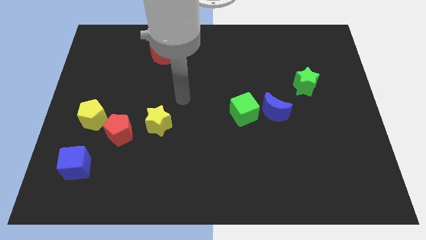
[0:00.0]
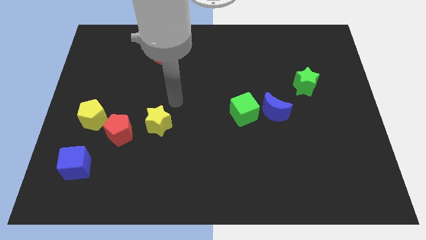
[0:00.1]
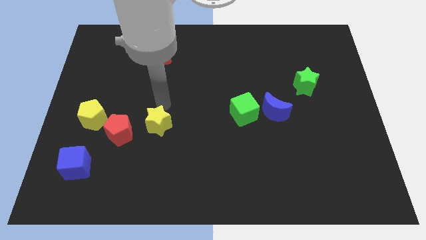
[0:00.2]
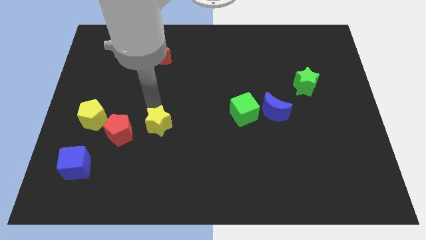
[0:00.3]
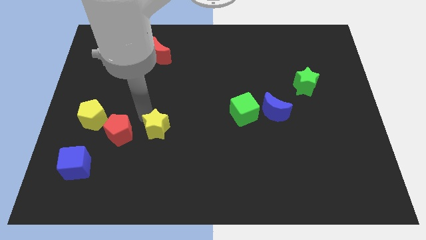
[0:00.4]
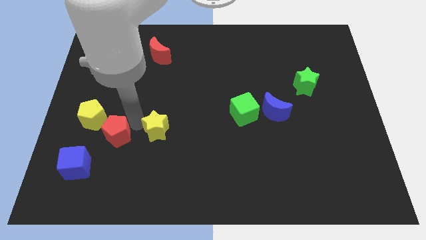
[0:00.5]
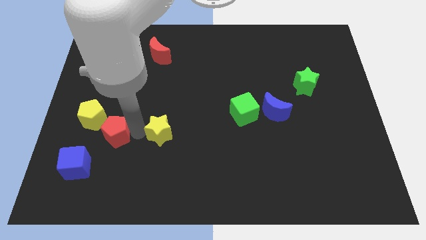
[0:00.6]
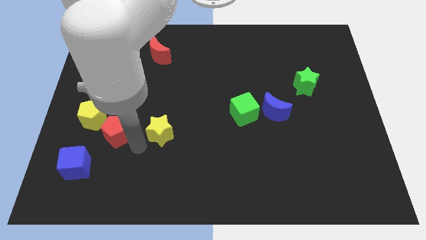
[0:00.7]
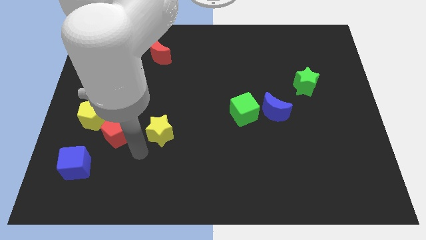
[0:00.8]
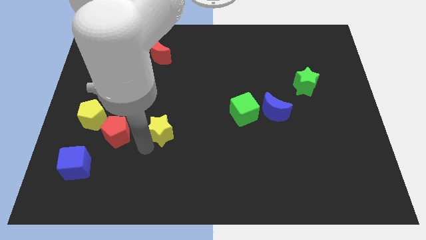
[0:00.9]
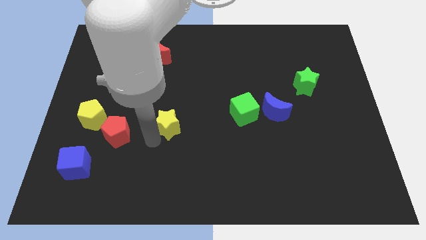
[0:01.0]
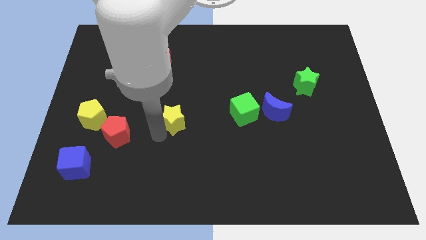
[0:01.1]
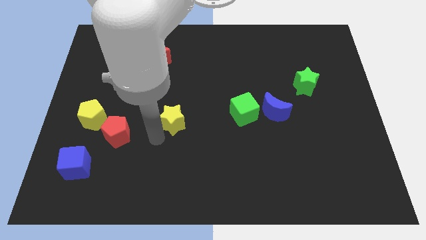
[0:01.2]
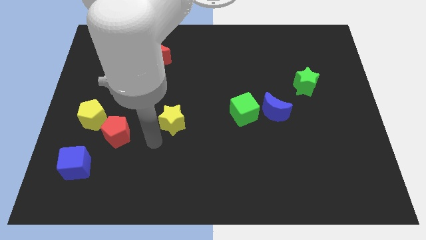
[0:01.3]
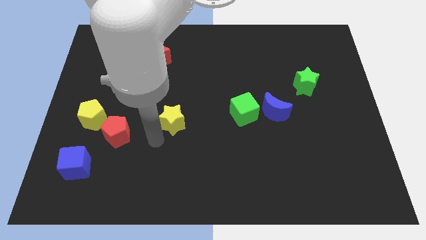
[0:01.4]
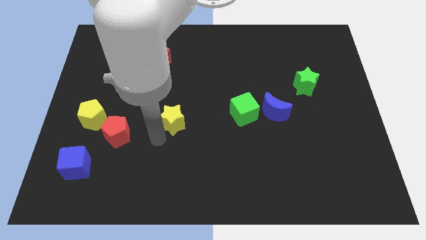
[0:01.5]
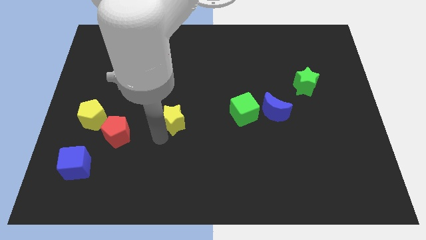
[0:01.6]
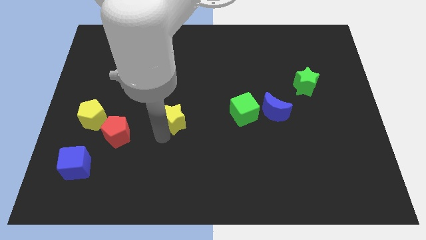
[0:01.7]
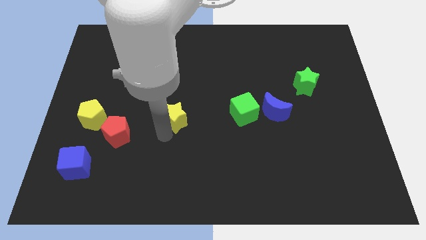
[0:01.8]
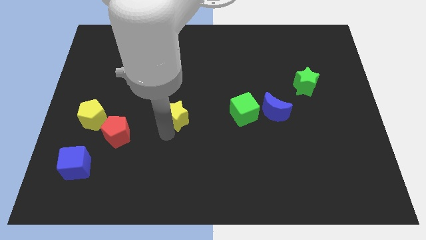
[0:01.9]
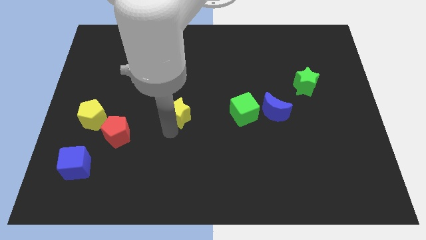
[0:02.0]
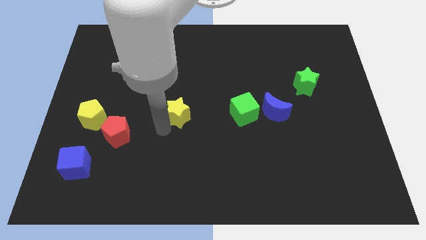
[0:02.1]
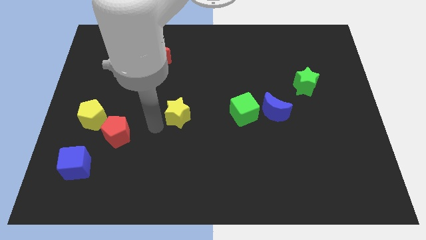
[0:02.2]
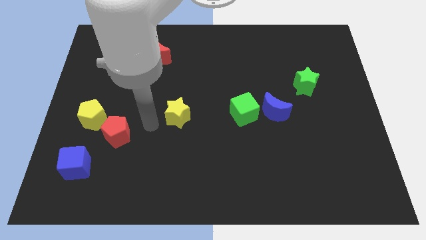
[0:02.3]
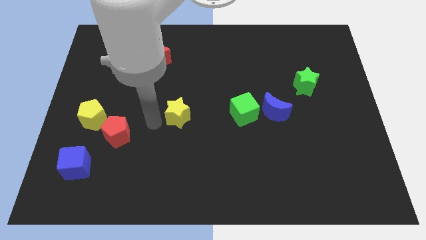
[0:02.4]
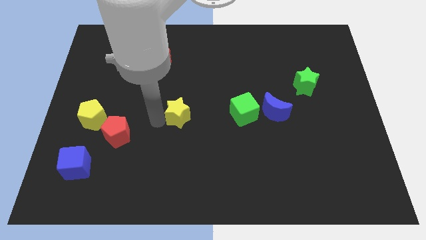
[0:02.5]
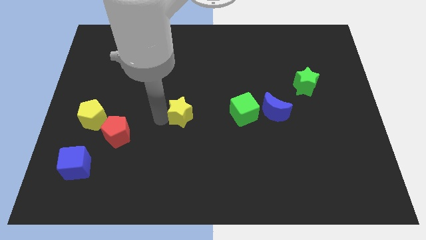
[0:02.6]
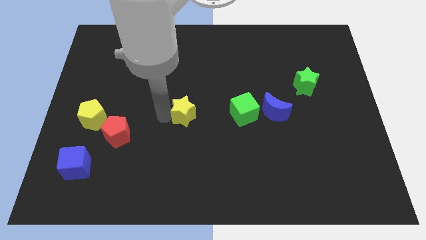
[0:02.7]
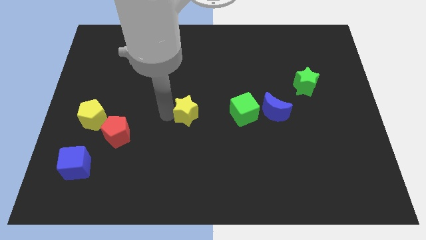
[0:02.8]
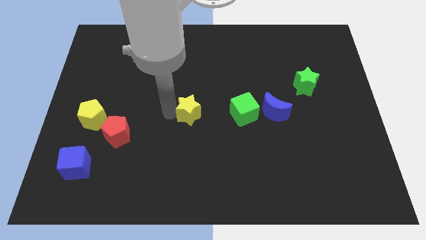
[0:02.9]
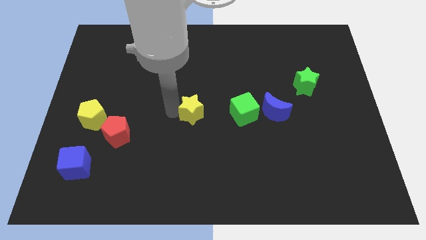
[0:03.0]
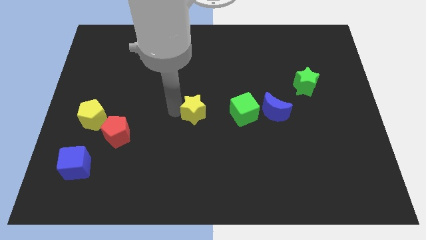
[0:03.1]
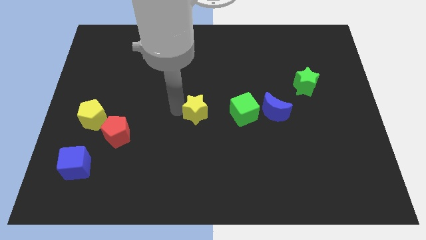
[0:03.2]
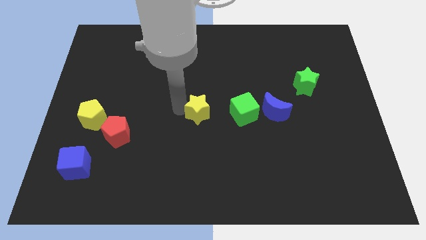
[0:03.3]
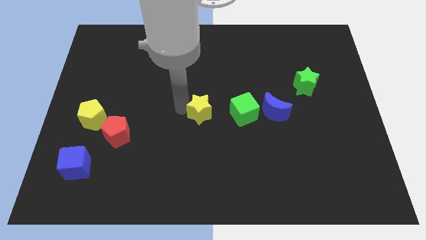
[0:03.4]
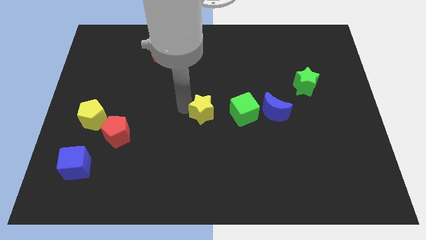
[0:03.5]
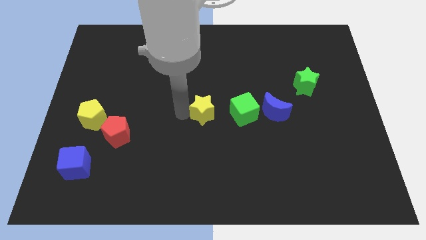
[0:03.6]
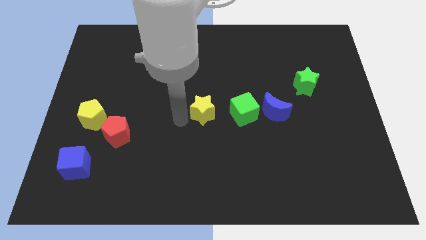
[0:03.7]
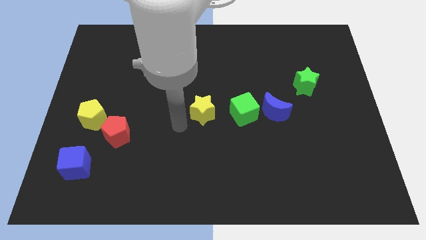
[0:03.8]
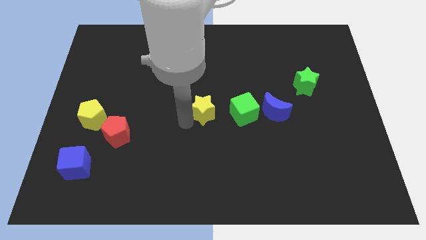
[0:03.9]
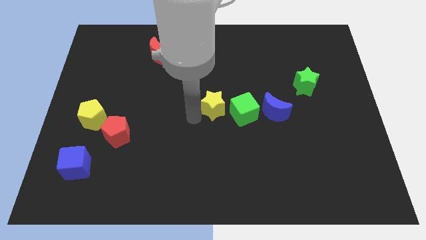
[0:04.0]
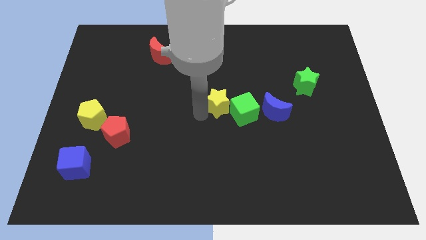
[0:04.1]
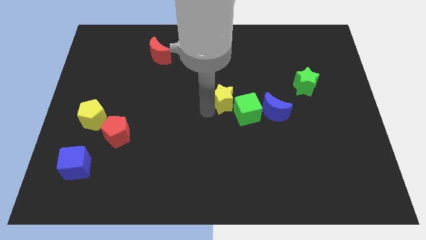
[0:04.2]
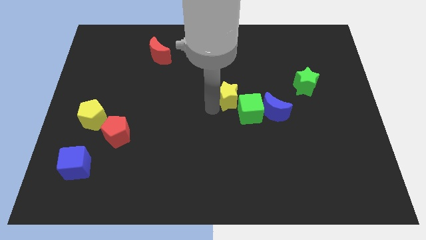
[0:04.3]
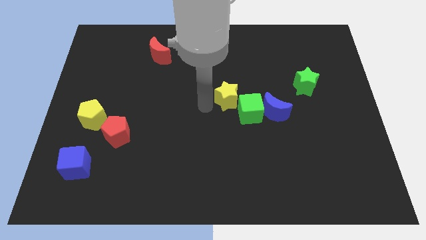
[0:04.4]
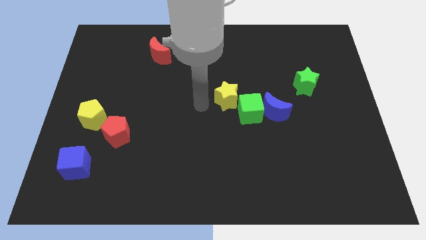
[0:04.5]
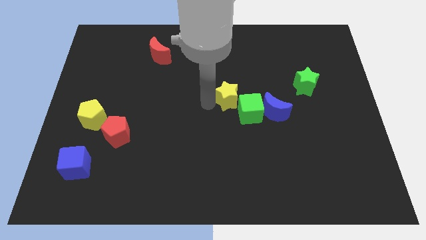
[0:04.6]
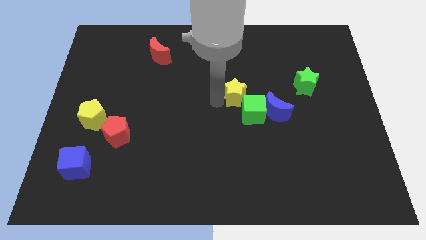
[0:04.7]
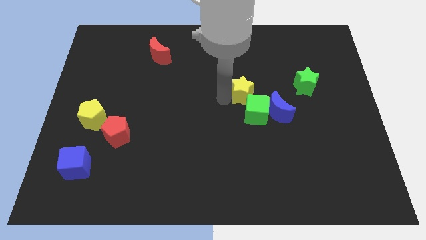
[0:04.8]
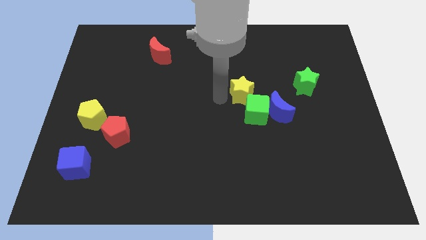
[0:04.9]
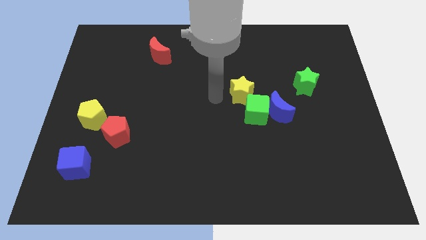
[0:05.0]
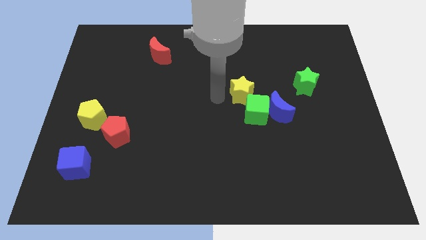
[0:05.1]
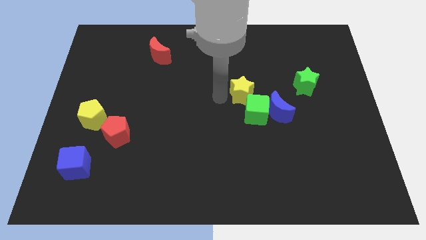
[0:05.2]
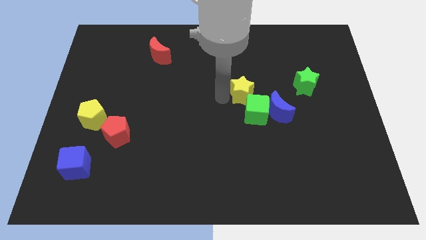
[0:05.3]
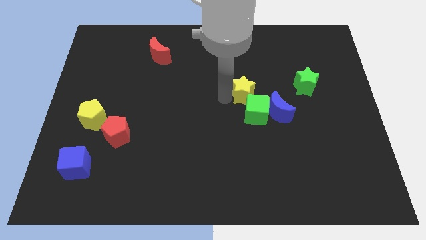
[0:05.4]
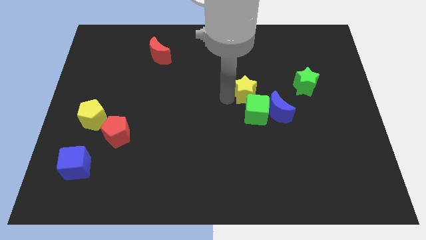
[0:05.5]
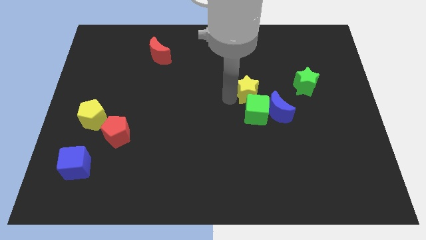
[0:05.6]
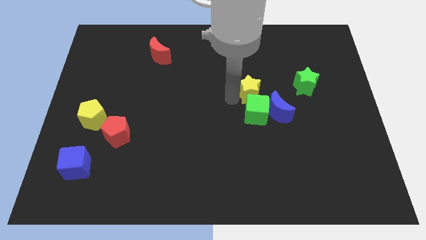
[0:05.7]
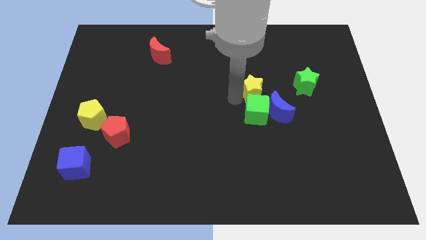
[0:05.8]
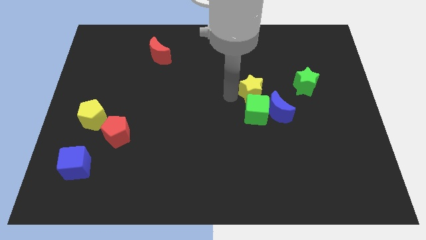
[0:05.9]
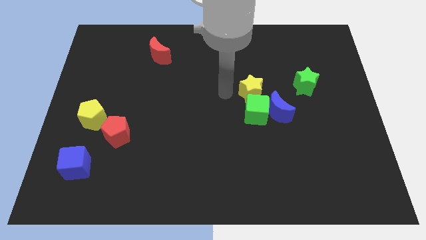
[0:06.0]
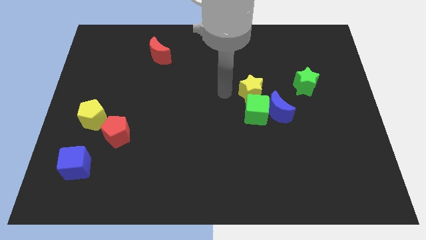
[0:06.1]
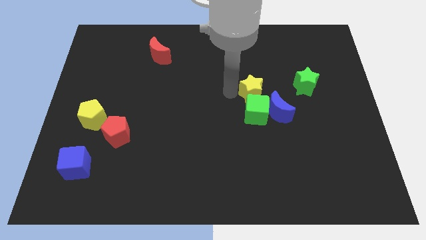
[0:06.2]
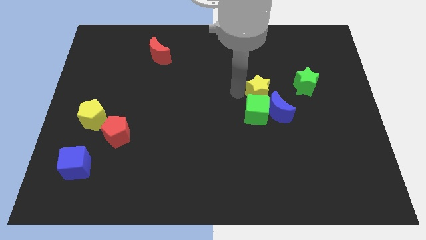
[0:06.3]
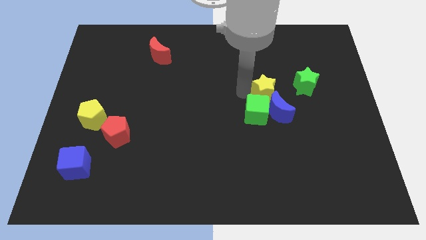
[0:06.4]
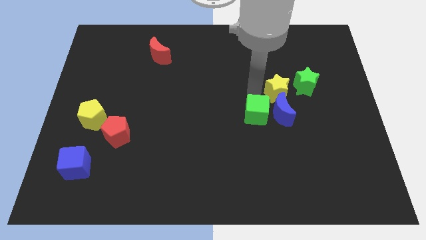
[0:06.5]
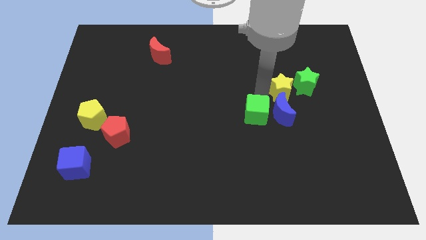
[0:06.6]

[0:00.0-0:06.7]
put the yellow star to the green star
